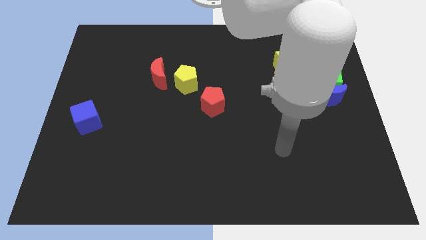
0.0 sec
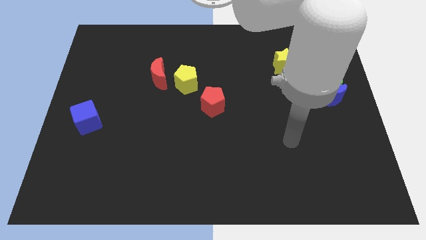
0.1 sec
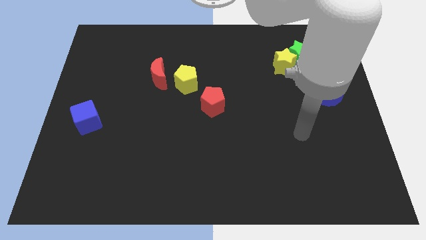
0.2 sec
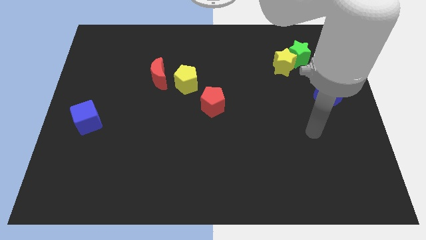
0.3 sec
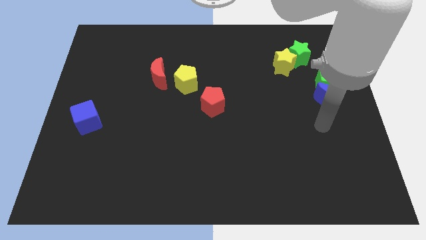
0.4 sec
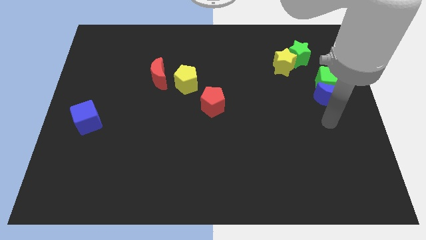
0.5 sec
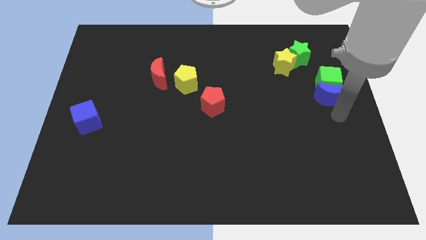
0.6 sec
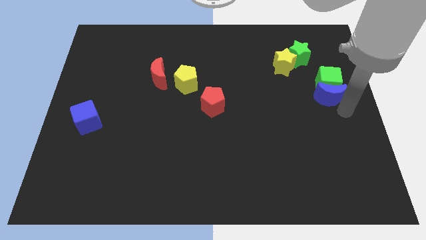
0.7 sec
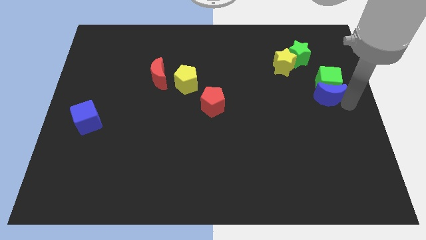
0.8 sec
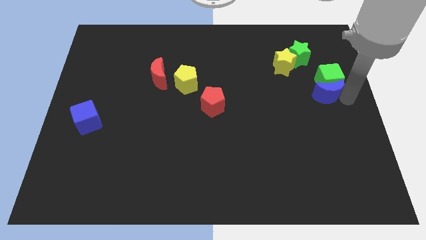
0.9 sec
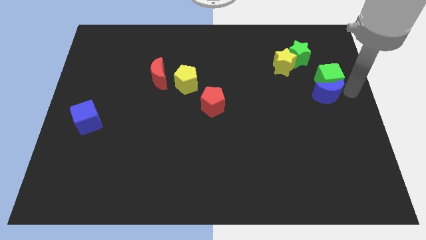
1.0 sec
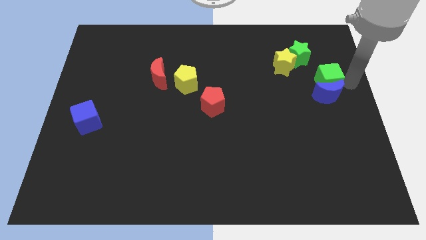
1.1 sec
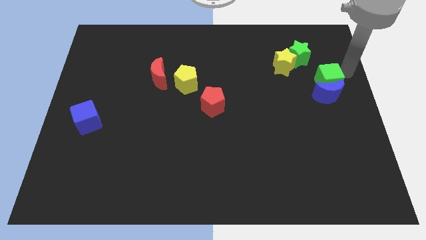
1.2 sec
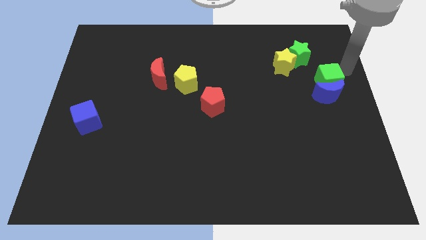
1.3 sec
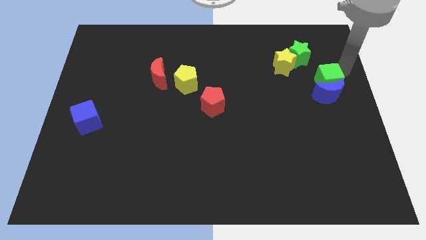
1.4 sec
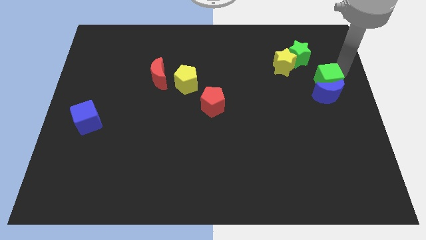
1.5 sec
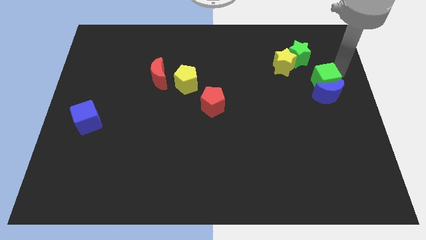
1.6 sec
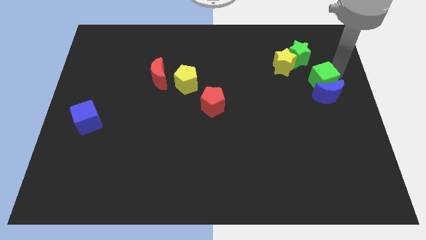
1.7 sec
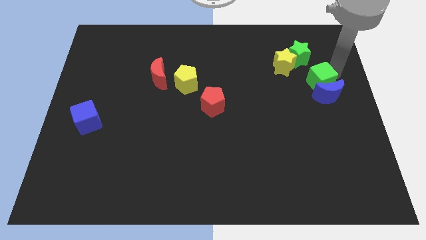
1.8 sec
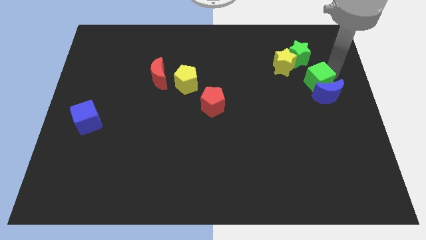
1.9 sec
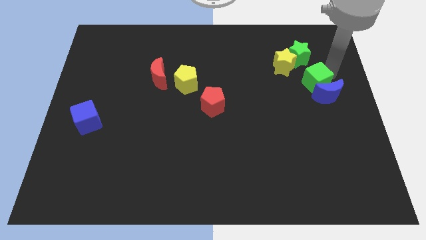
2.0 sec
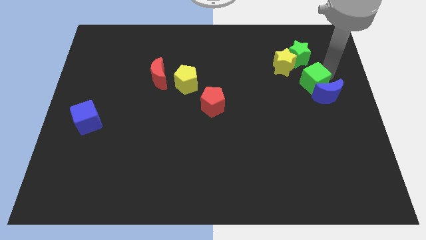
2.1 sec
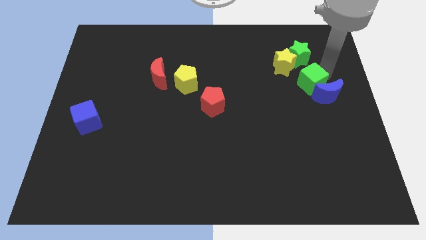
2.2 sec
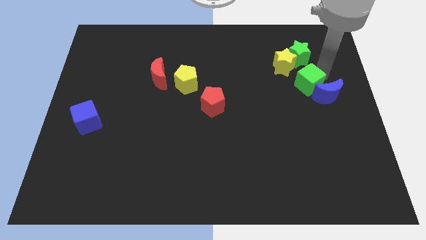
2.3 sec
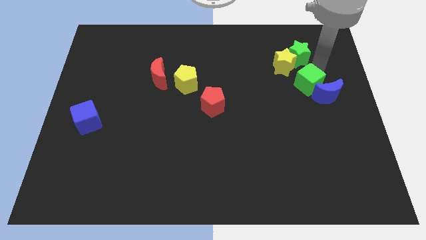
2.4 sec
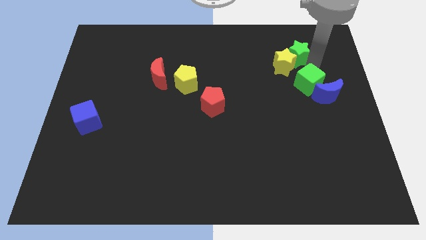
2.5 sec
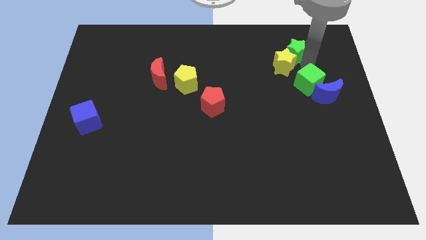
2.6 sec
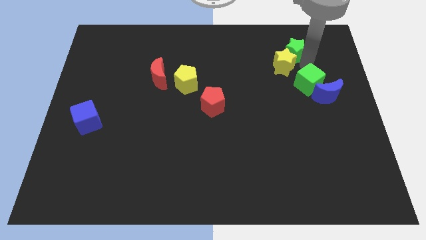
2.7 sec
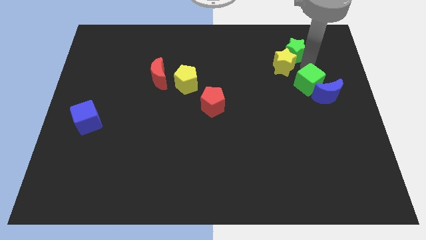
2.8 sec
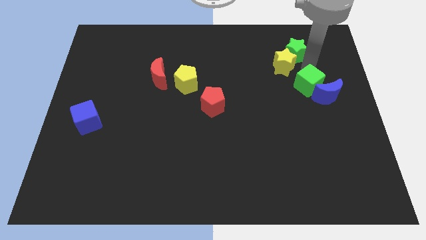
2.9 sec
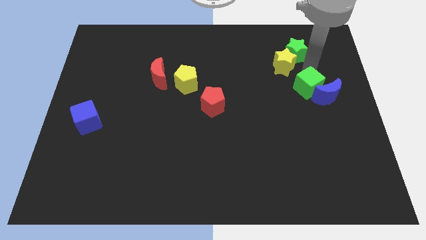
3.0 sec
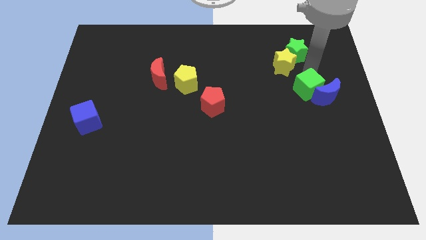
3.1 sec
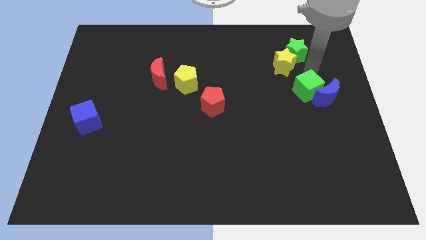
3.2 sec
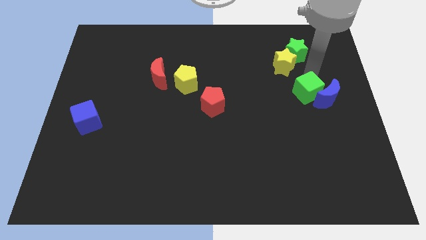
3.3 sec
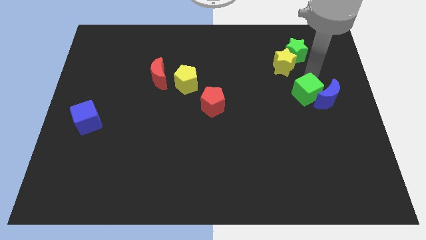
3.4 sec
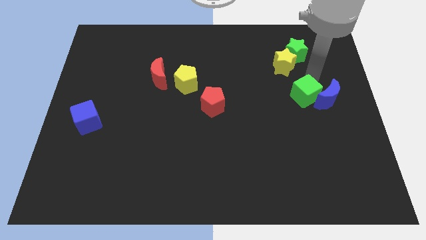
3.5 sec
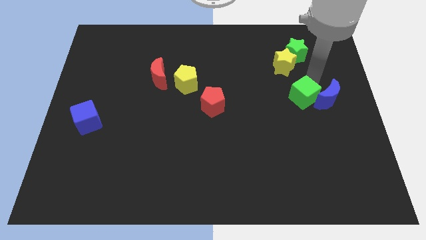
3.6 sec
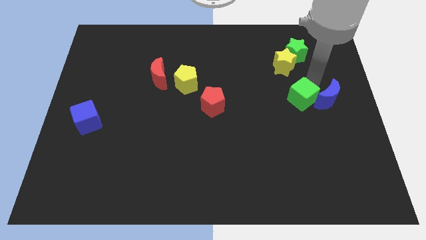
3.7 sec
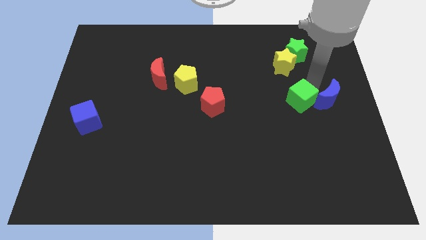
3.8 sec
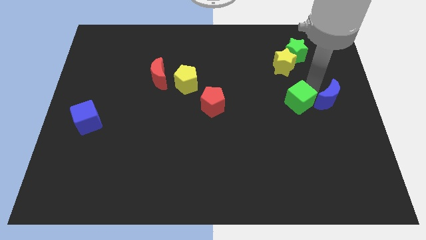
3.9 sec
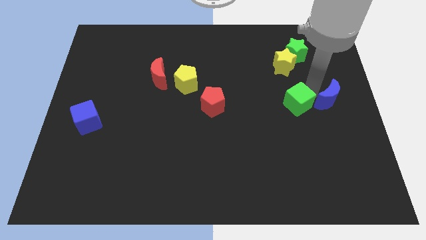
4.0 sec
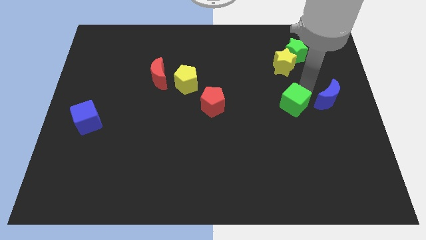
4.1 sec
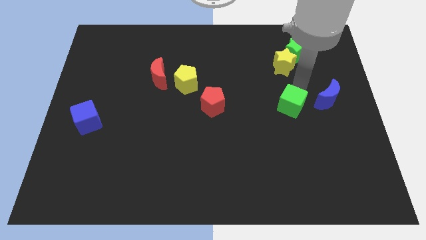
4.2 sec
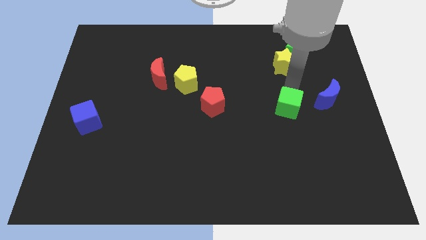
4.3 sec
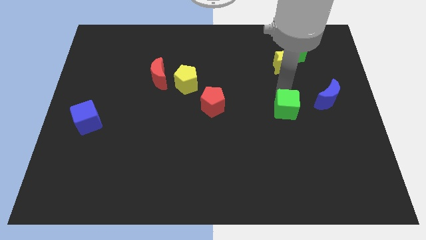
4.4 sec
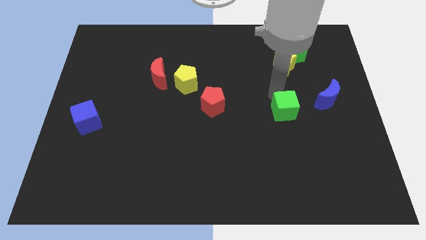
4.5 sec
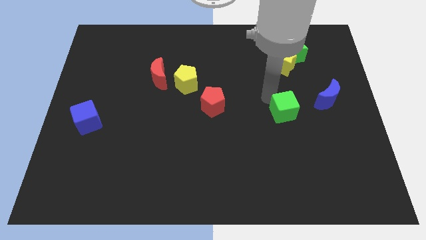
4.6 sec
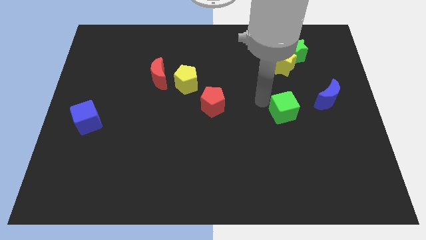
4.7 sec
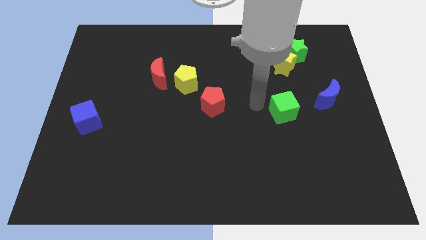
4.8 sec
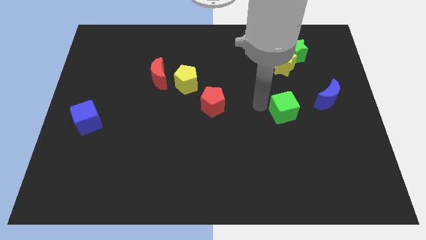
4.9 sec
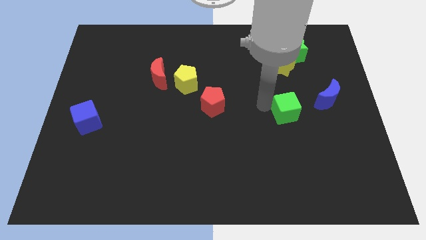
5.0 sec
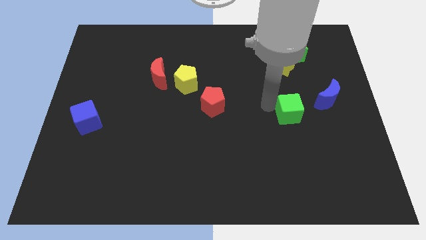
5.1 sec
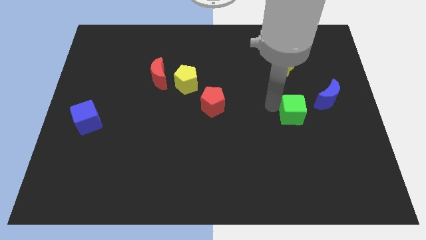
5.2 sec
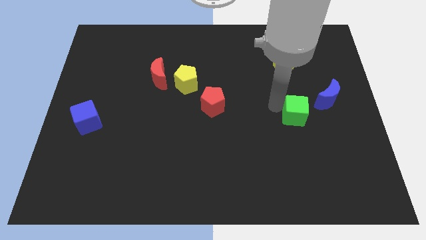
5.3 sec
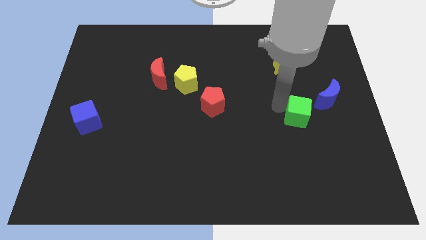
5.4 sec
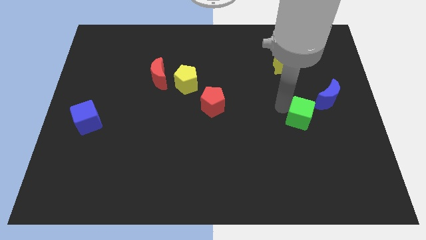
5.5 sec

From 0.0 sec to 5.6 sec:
slide the green cube a bit down

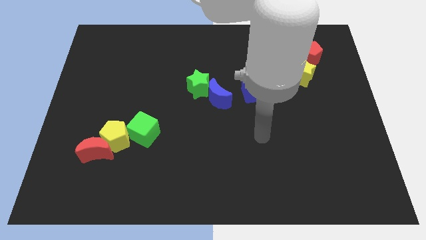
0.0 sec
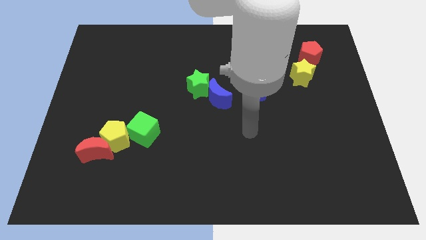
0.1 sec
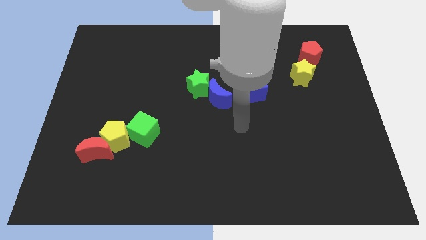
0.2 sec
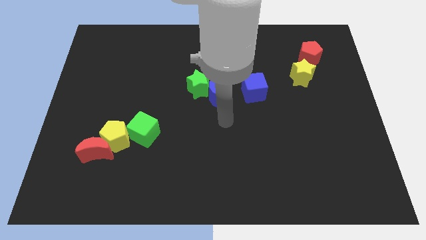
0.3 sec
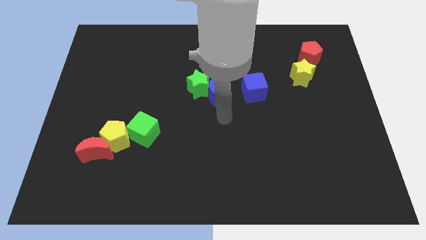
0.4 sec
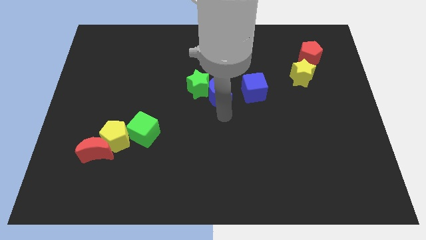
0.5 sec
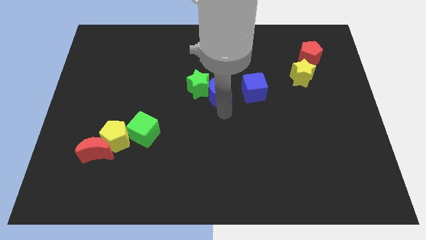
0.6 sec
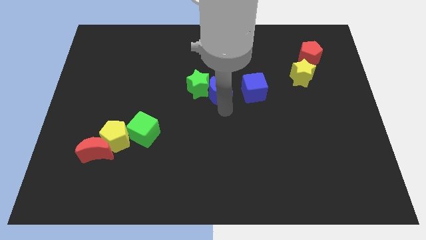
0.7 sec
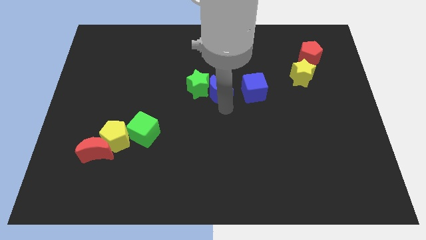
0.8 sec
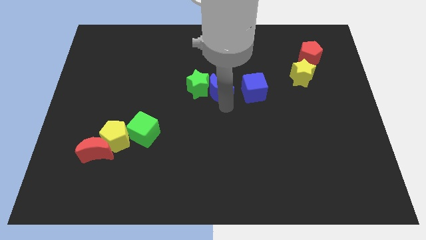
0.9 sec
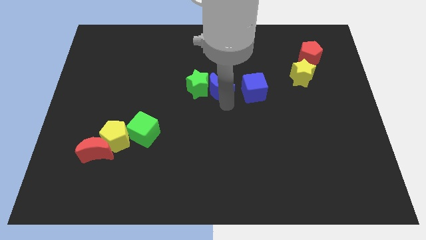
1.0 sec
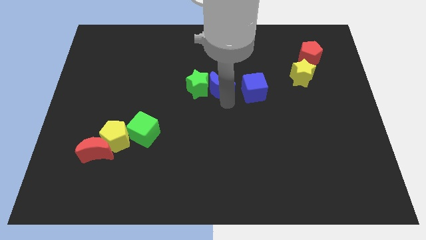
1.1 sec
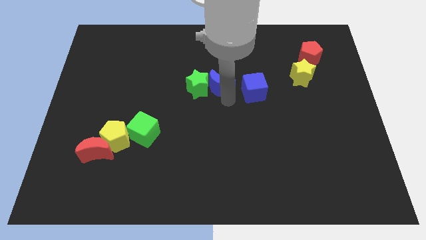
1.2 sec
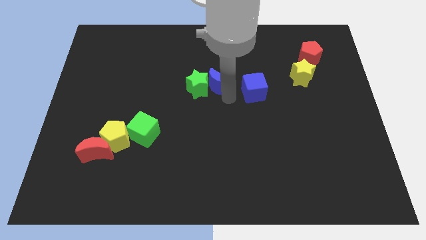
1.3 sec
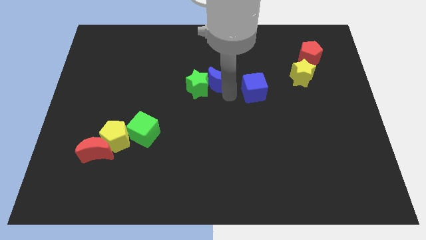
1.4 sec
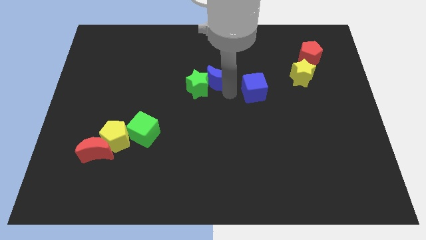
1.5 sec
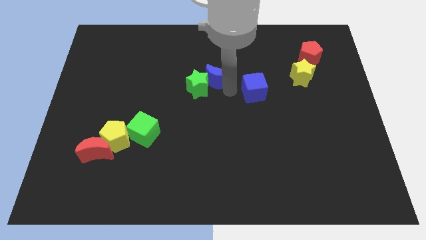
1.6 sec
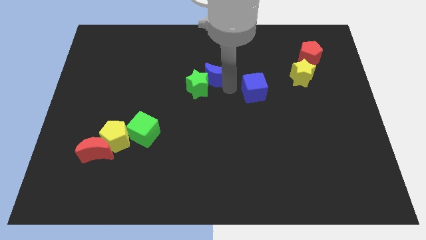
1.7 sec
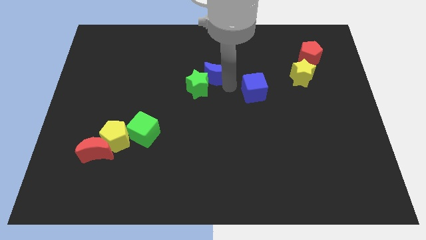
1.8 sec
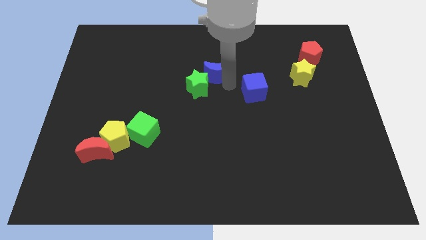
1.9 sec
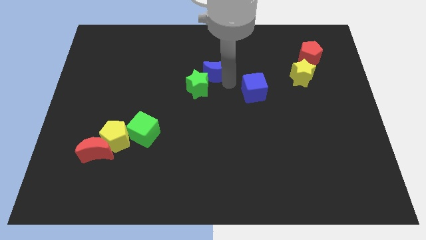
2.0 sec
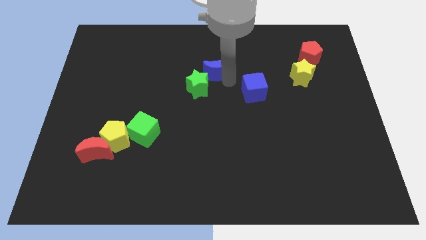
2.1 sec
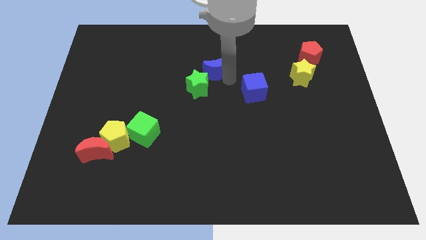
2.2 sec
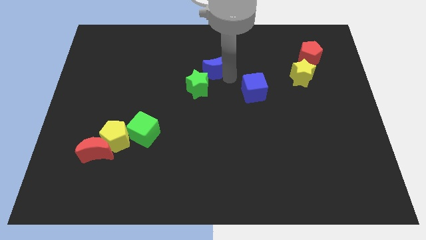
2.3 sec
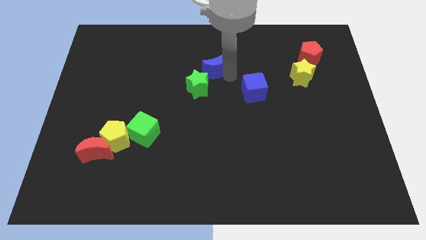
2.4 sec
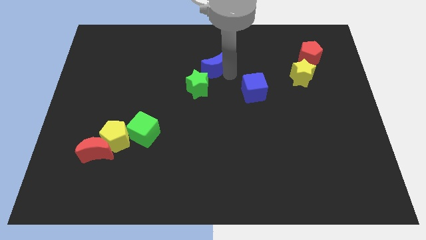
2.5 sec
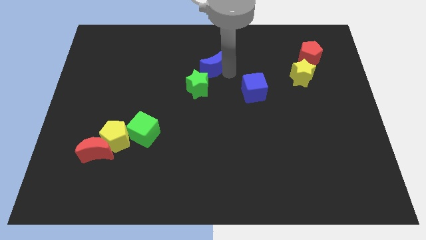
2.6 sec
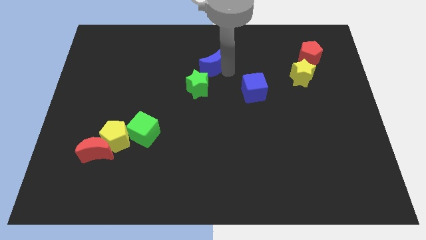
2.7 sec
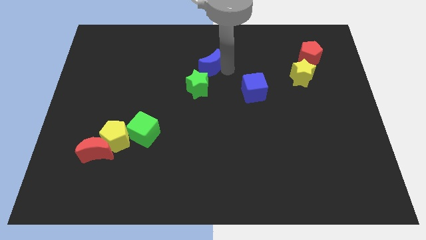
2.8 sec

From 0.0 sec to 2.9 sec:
slightly move the blue moon upwards and then to the left
